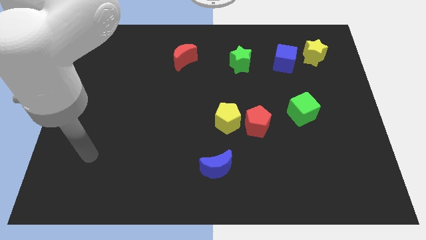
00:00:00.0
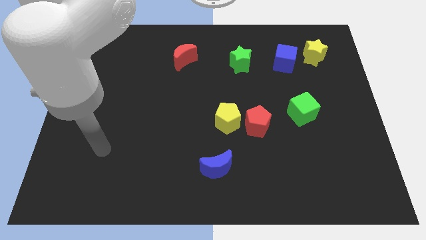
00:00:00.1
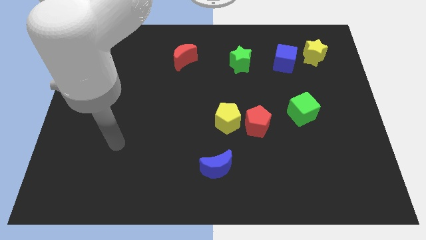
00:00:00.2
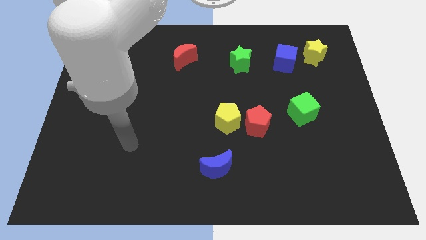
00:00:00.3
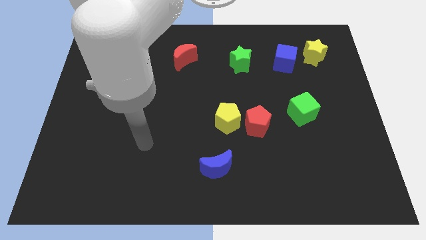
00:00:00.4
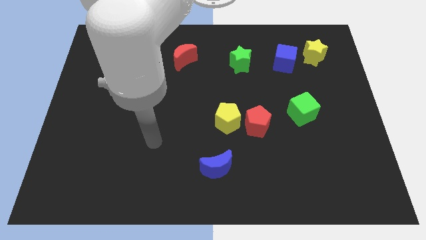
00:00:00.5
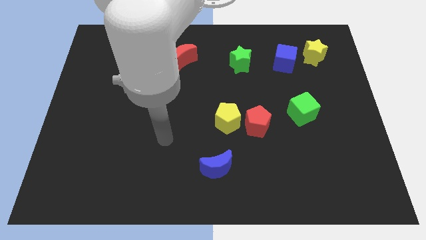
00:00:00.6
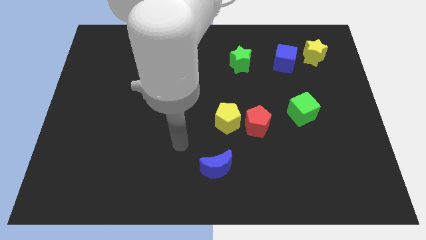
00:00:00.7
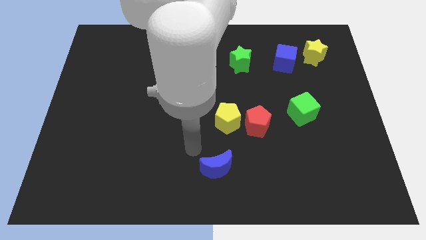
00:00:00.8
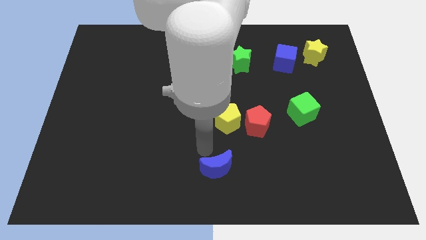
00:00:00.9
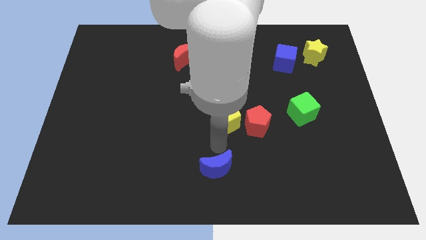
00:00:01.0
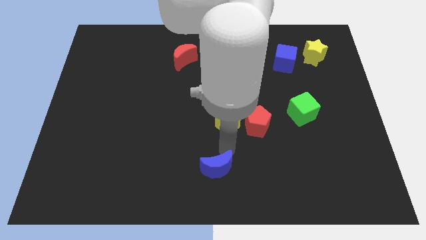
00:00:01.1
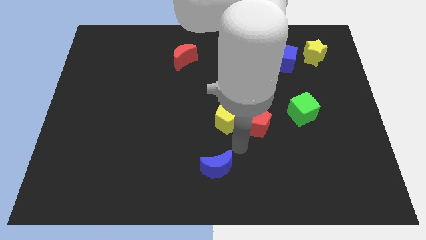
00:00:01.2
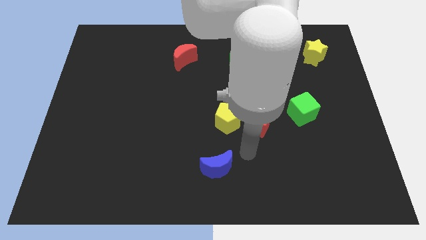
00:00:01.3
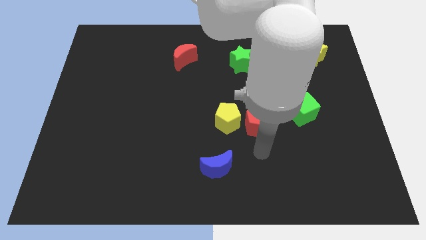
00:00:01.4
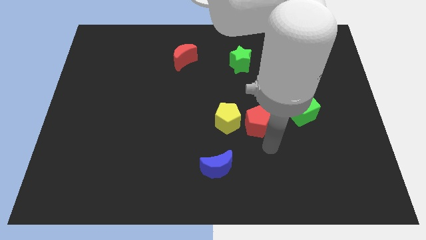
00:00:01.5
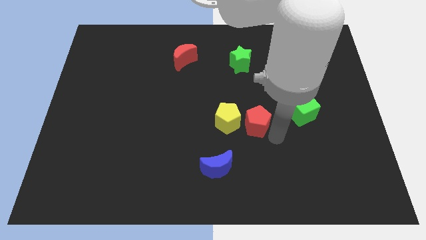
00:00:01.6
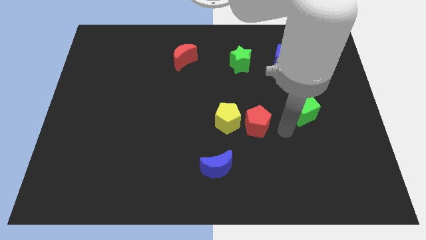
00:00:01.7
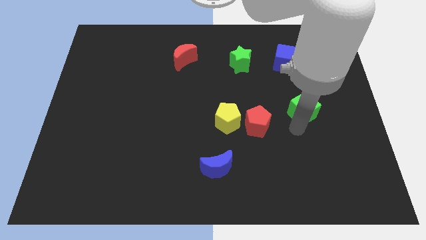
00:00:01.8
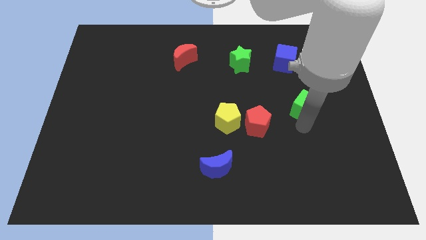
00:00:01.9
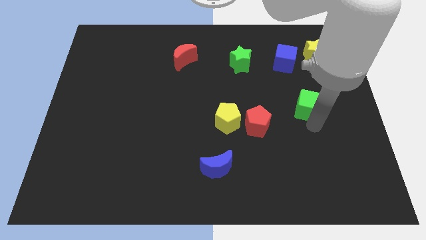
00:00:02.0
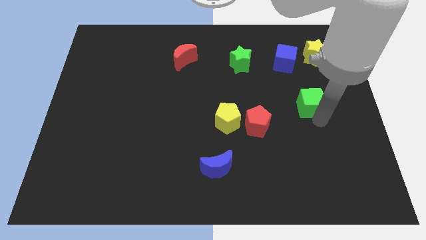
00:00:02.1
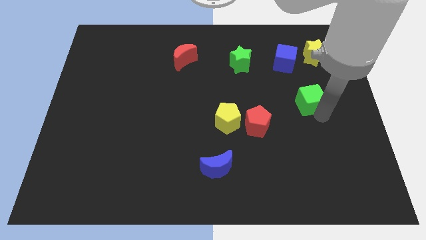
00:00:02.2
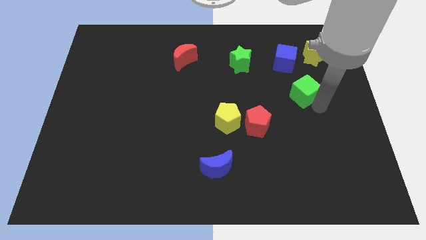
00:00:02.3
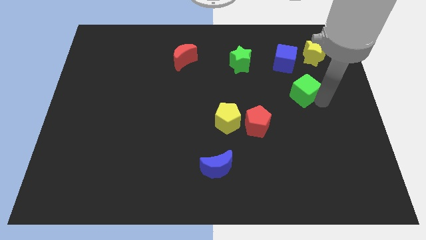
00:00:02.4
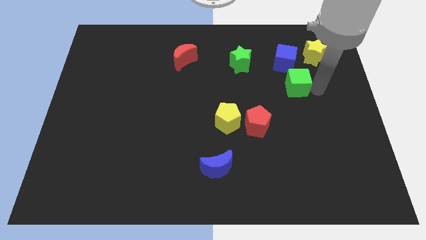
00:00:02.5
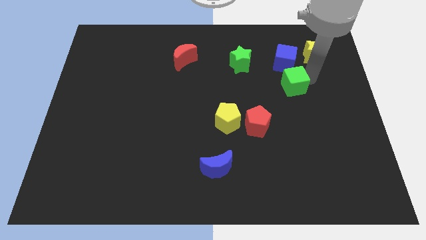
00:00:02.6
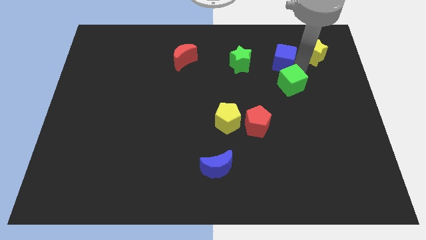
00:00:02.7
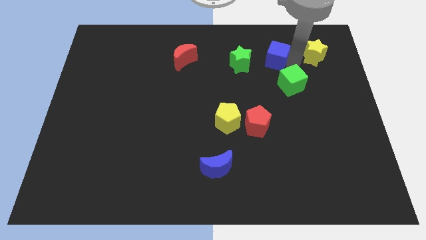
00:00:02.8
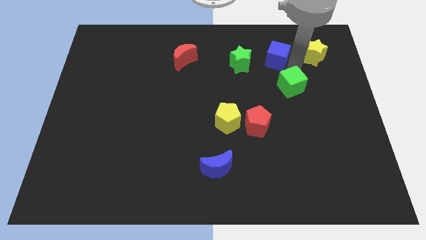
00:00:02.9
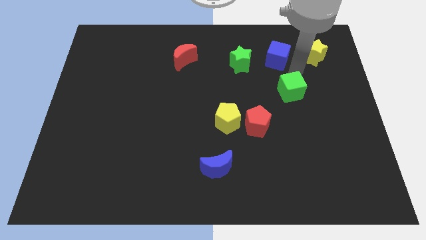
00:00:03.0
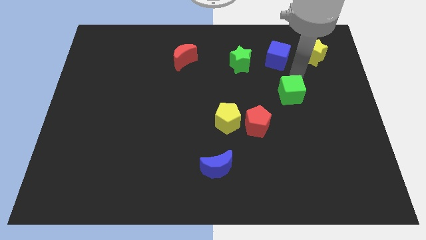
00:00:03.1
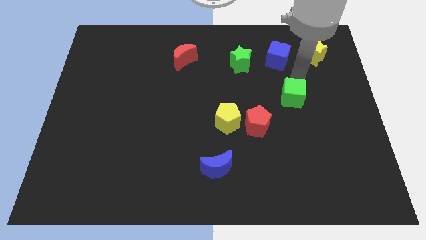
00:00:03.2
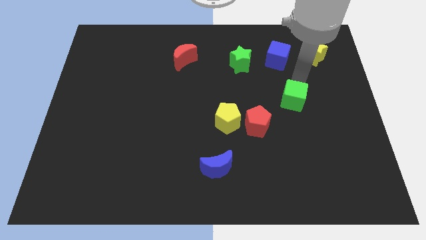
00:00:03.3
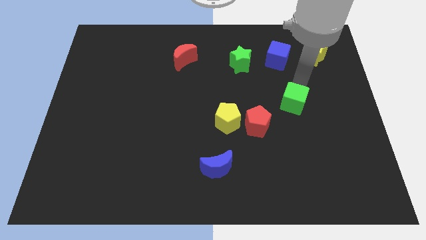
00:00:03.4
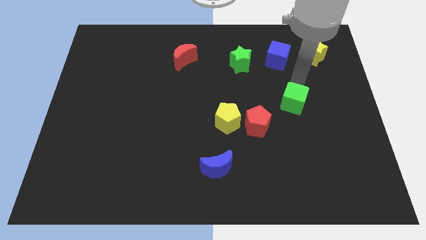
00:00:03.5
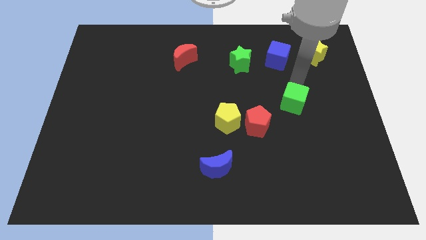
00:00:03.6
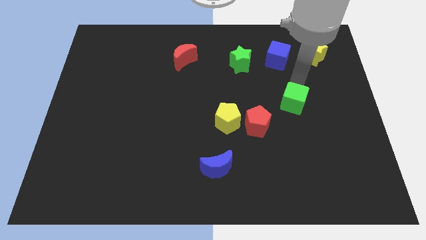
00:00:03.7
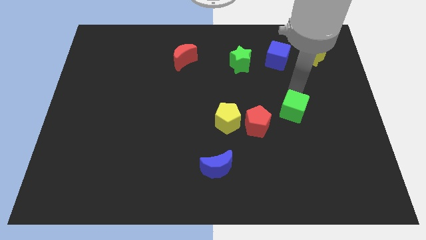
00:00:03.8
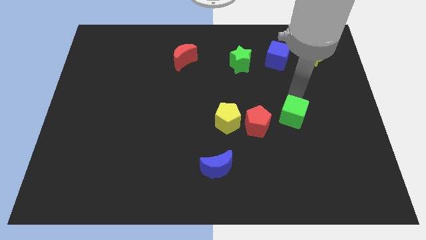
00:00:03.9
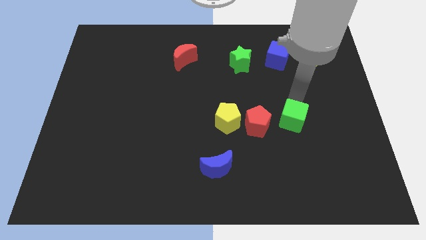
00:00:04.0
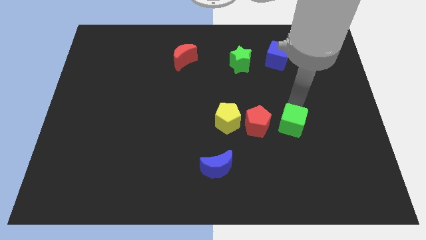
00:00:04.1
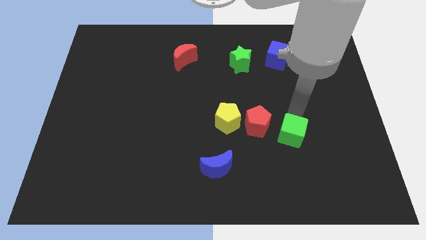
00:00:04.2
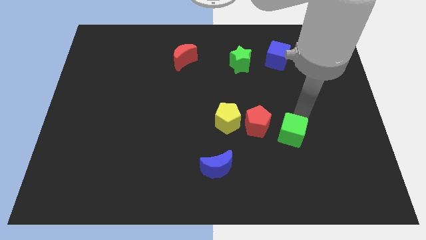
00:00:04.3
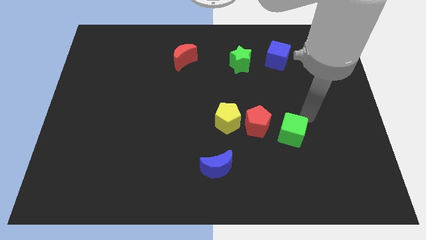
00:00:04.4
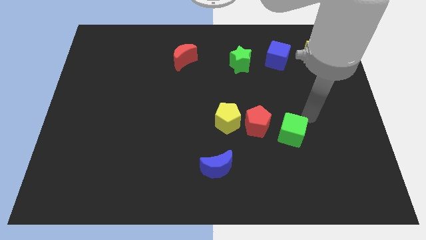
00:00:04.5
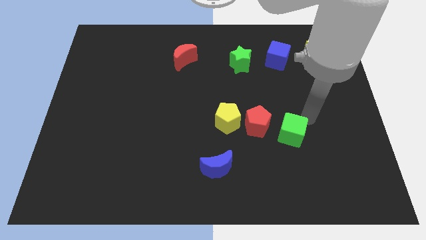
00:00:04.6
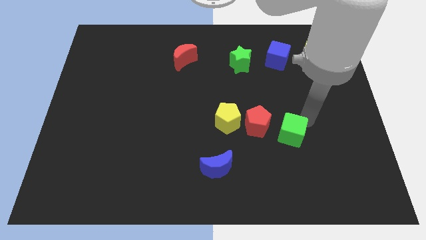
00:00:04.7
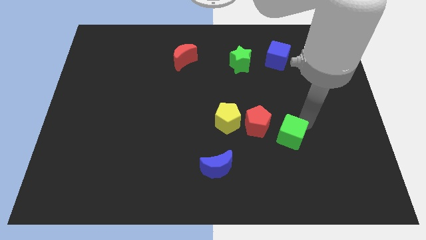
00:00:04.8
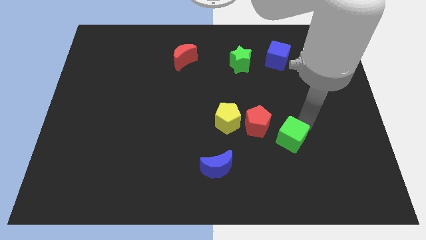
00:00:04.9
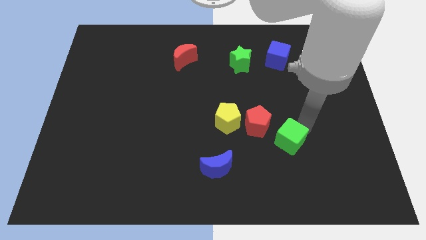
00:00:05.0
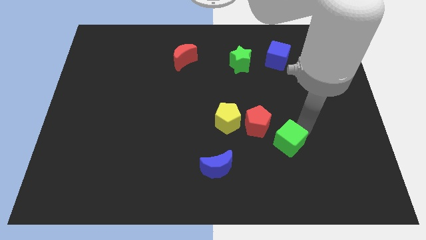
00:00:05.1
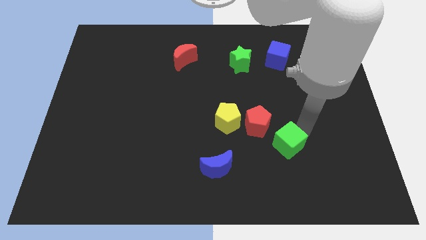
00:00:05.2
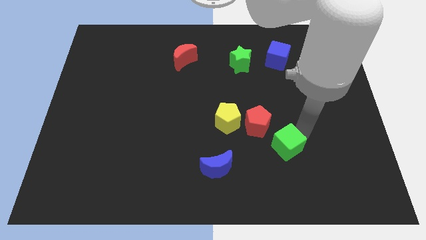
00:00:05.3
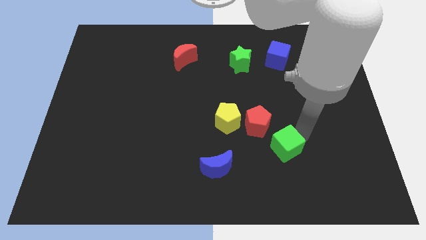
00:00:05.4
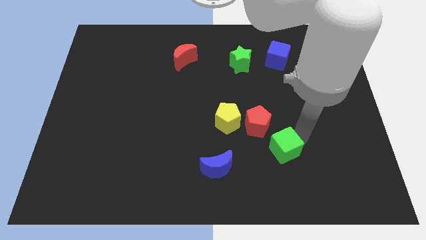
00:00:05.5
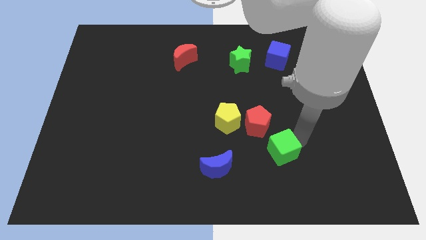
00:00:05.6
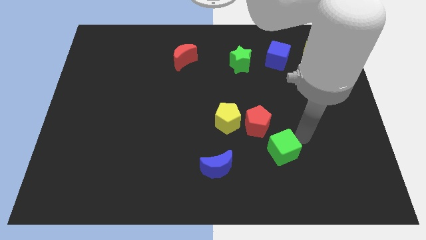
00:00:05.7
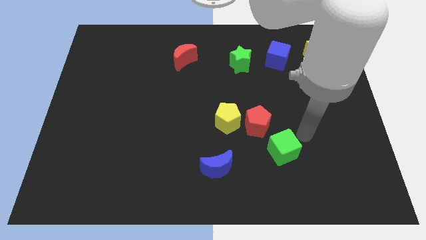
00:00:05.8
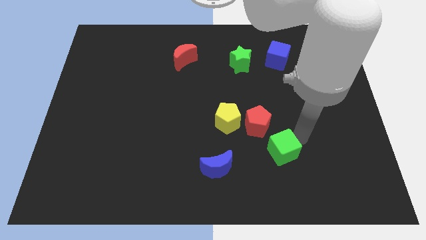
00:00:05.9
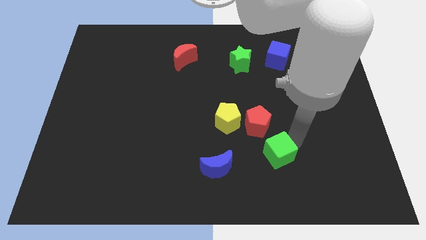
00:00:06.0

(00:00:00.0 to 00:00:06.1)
move the green cube to the bottom side of the red pentagon

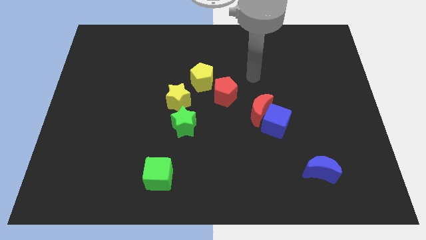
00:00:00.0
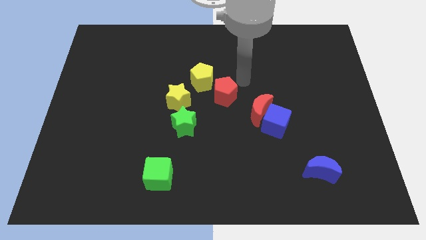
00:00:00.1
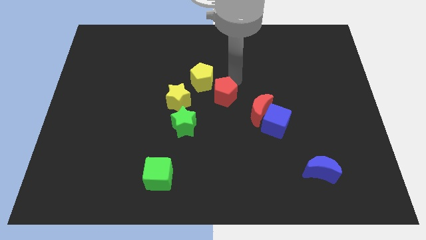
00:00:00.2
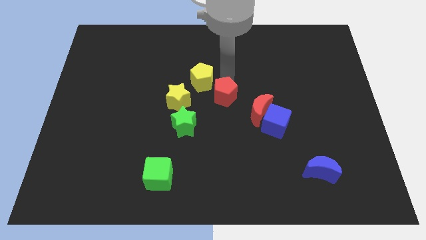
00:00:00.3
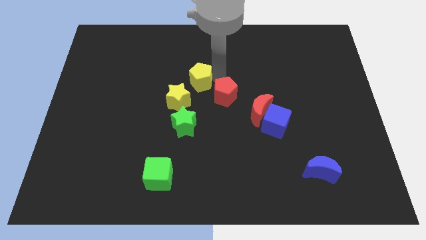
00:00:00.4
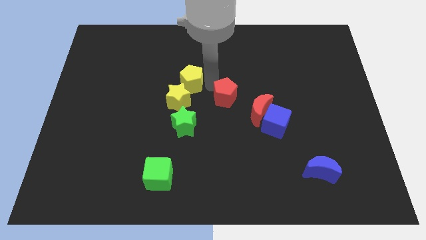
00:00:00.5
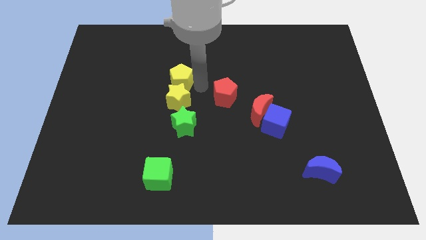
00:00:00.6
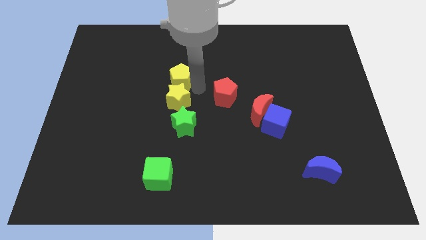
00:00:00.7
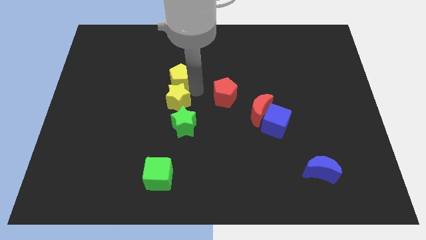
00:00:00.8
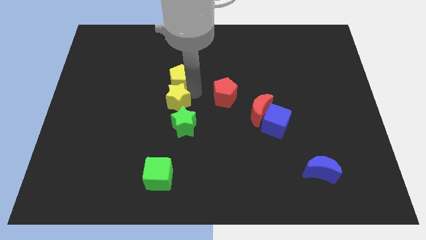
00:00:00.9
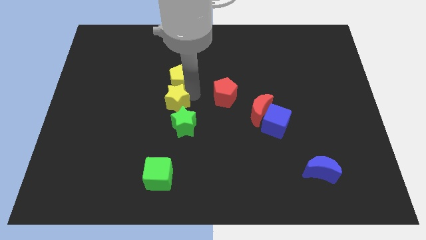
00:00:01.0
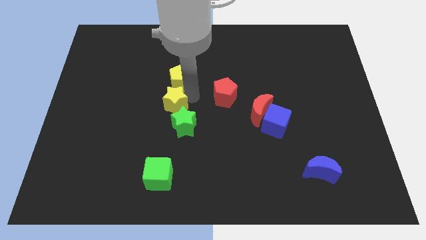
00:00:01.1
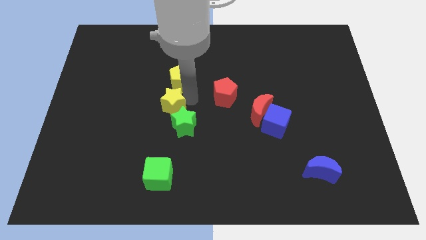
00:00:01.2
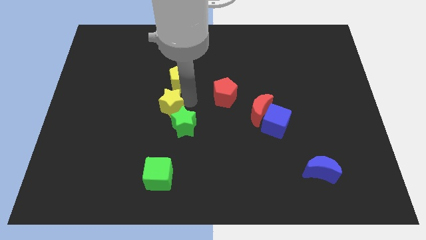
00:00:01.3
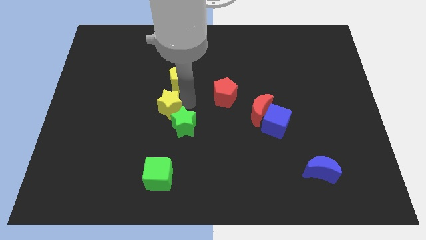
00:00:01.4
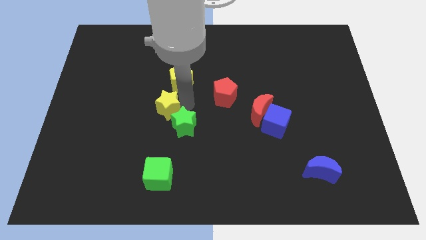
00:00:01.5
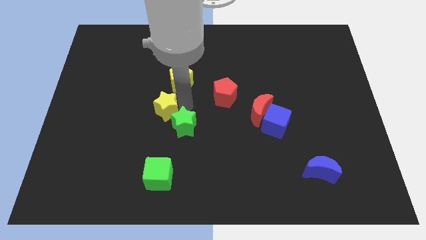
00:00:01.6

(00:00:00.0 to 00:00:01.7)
move the yellow star just left of the green star
